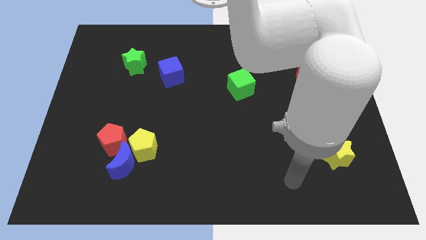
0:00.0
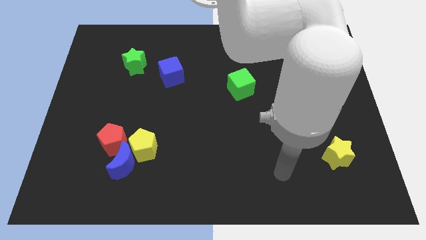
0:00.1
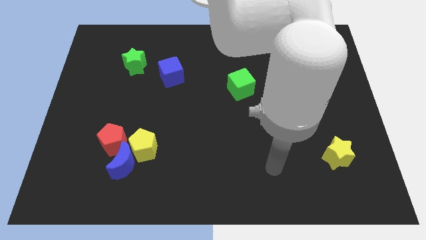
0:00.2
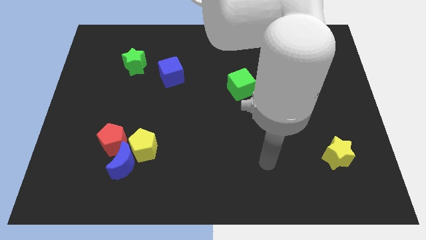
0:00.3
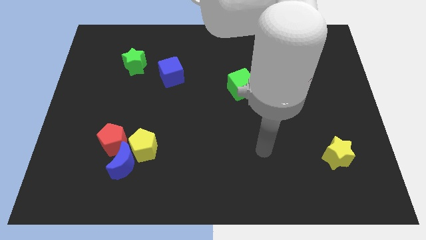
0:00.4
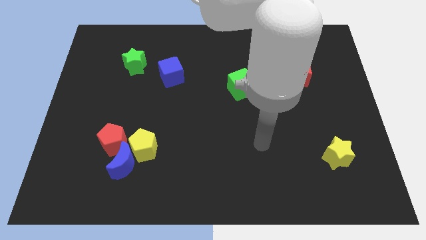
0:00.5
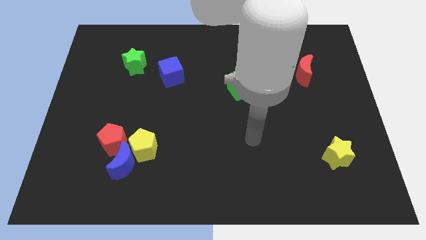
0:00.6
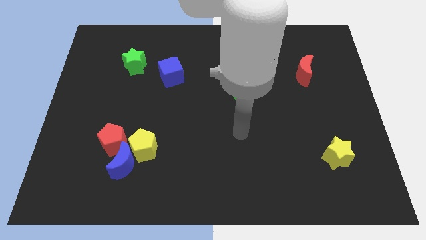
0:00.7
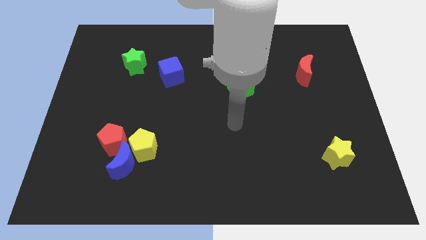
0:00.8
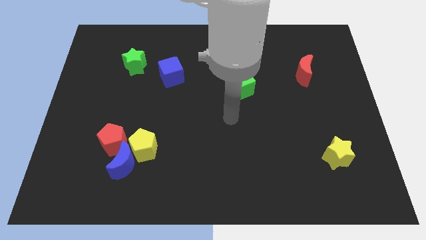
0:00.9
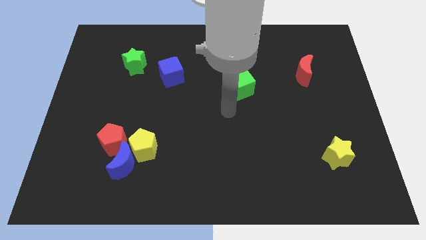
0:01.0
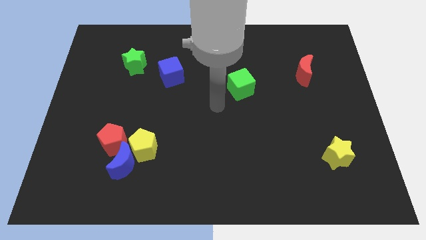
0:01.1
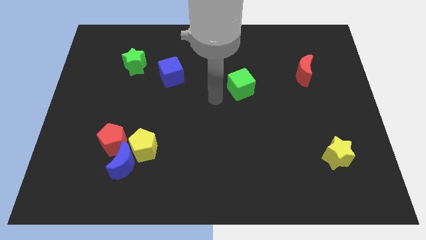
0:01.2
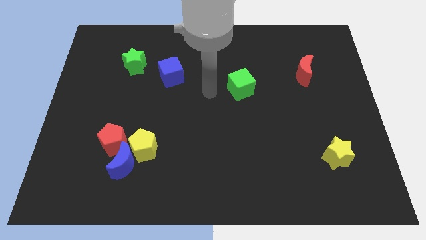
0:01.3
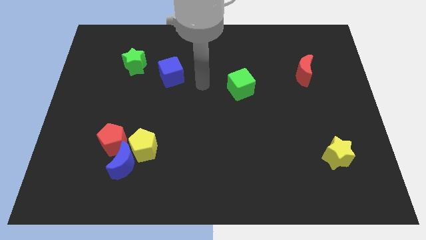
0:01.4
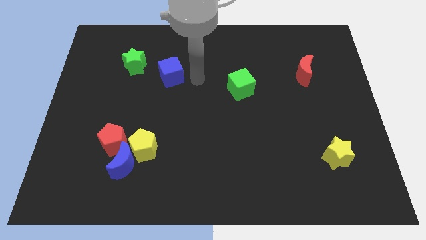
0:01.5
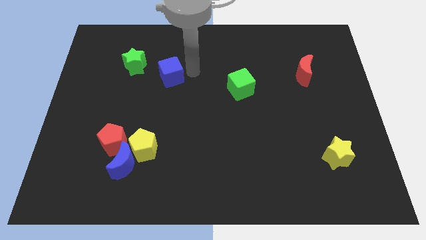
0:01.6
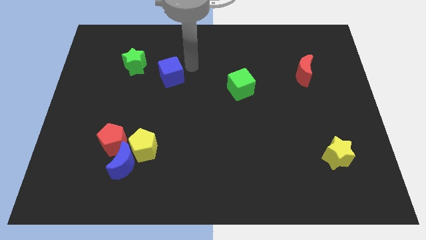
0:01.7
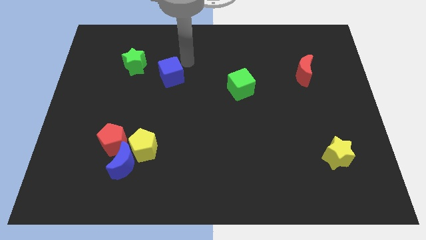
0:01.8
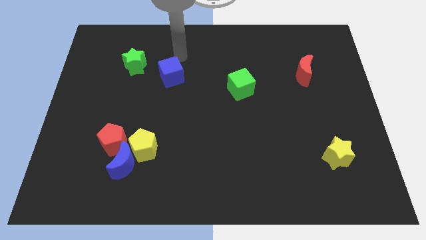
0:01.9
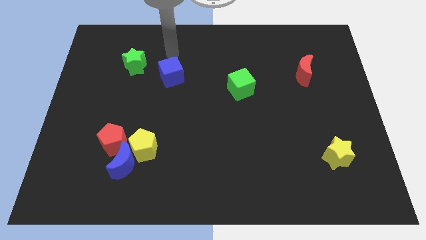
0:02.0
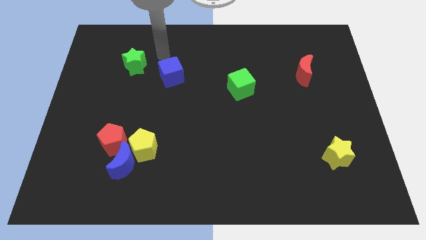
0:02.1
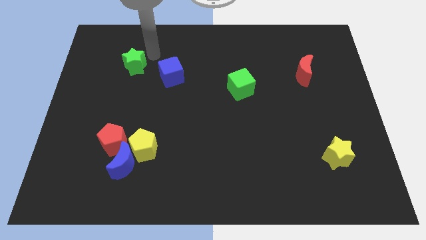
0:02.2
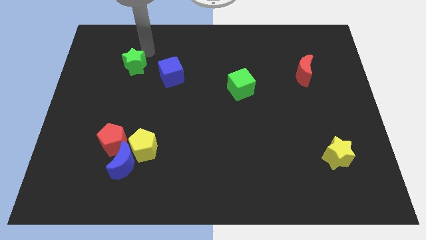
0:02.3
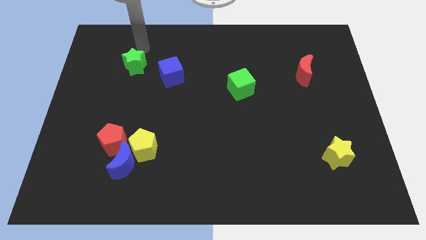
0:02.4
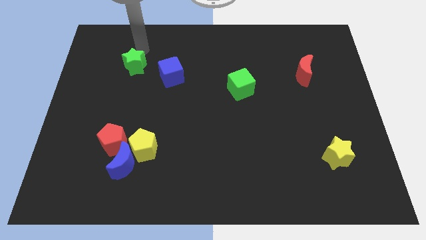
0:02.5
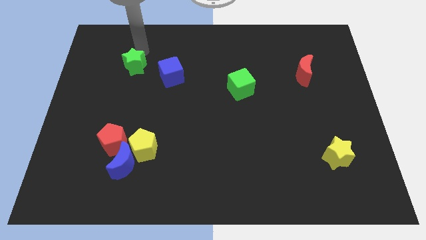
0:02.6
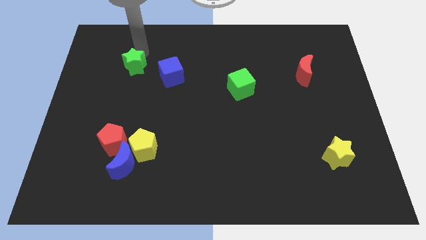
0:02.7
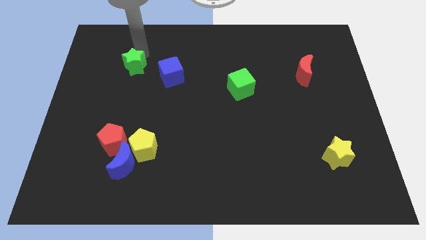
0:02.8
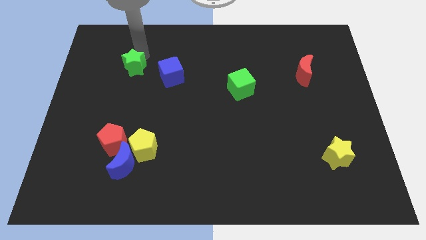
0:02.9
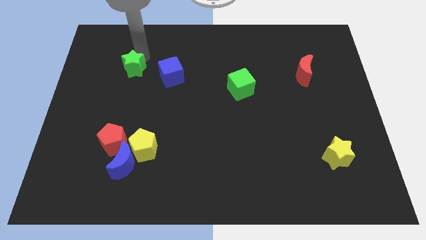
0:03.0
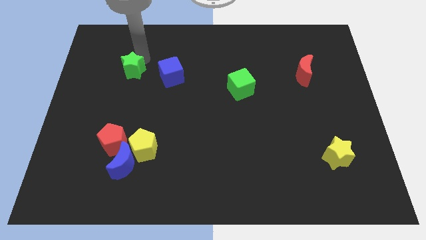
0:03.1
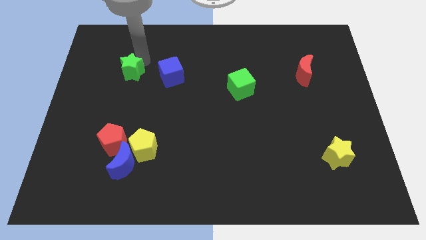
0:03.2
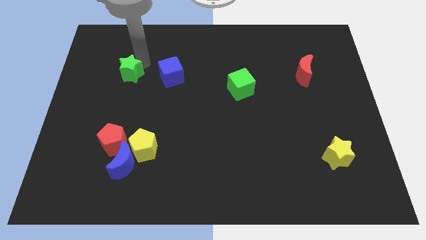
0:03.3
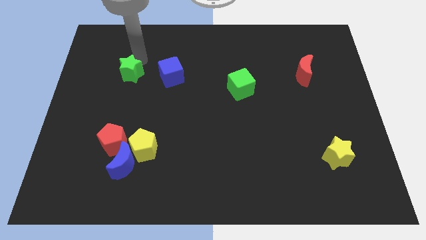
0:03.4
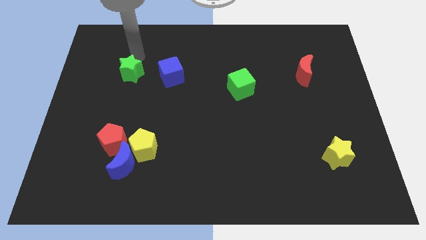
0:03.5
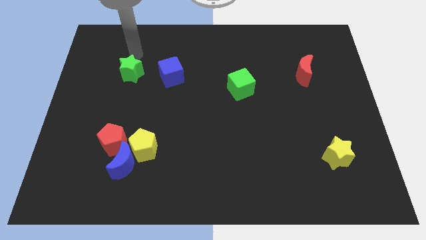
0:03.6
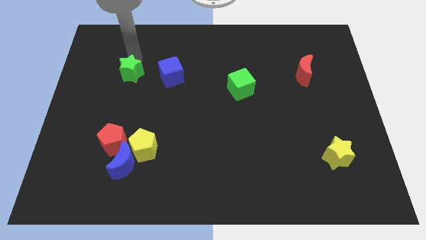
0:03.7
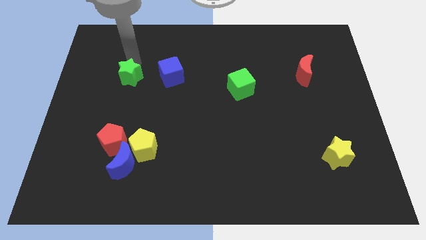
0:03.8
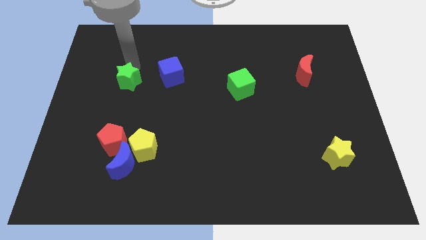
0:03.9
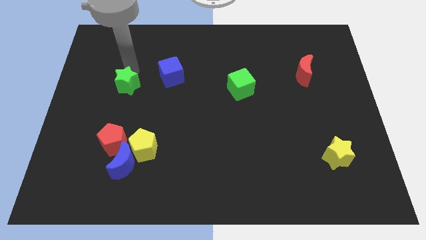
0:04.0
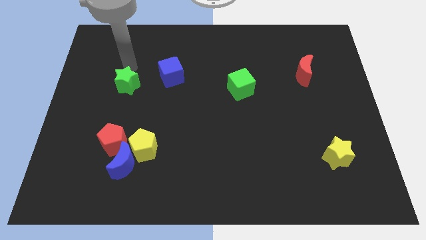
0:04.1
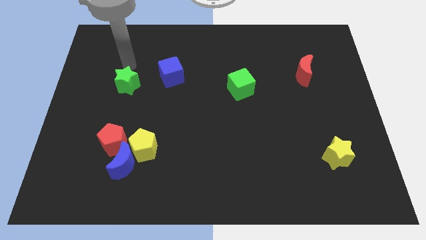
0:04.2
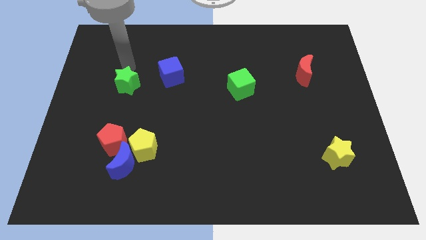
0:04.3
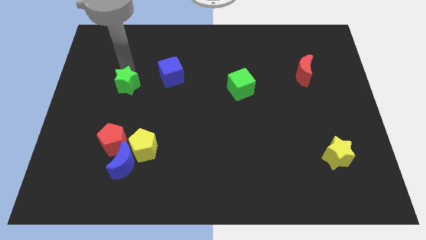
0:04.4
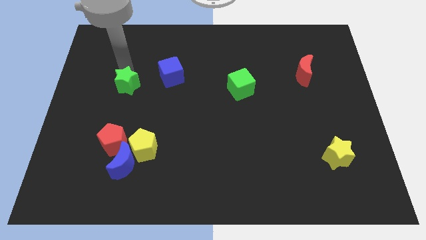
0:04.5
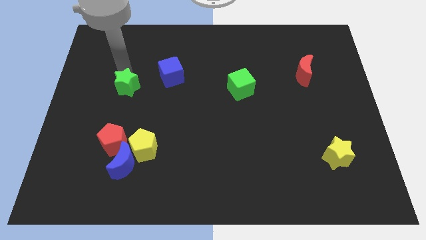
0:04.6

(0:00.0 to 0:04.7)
move the green star down a little bit

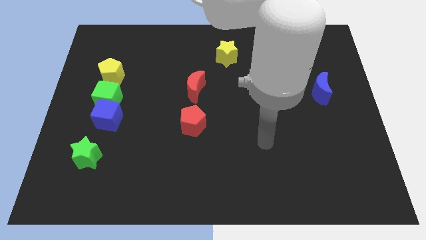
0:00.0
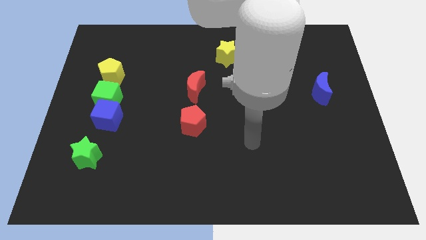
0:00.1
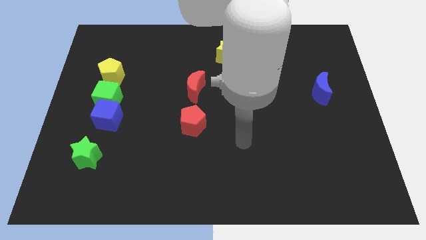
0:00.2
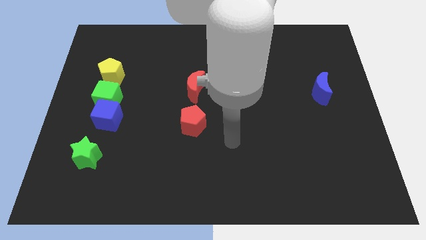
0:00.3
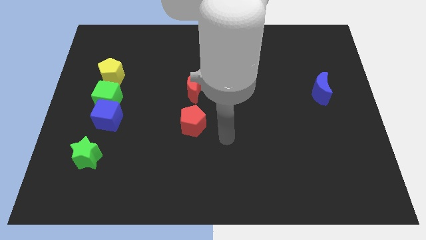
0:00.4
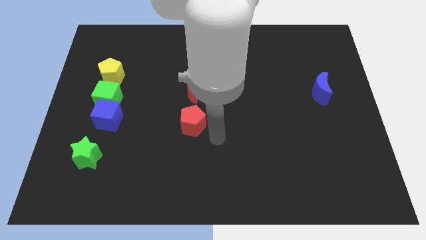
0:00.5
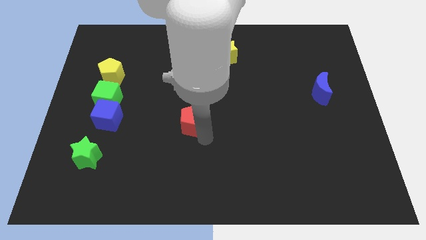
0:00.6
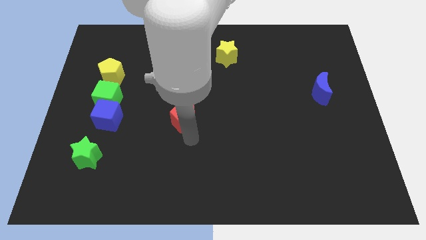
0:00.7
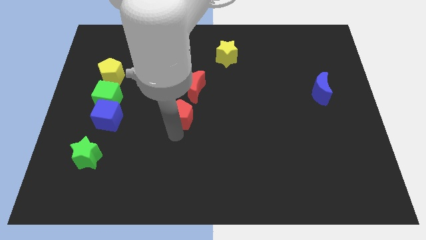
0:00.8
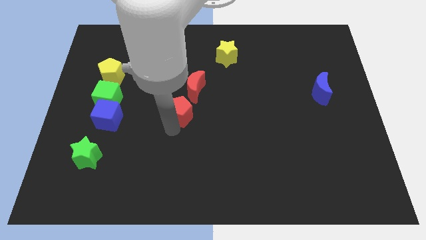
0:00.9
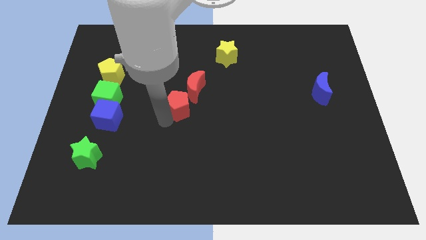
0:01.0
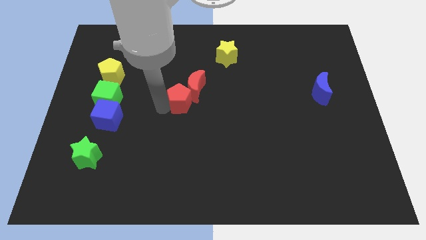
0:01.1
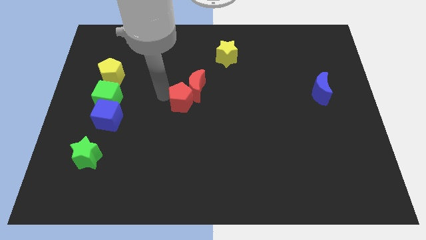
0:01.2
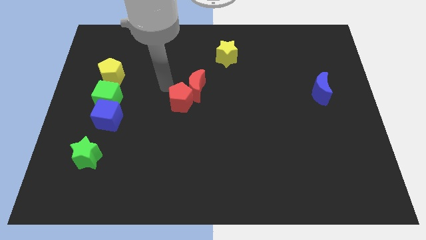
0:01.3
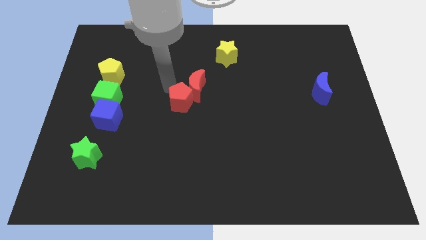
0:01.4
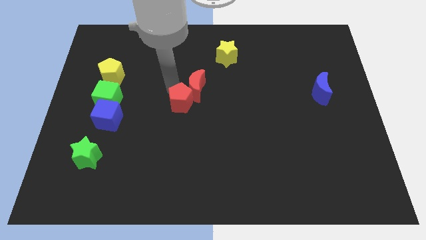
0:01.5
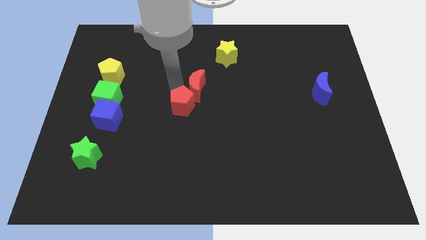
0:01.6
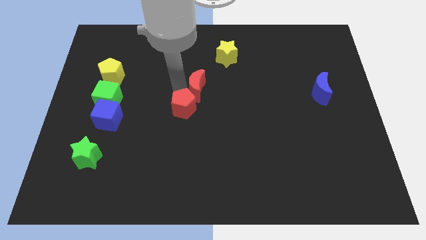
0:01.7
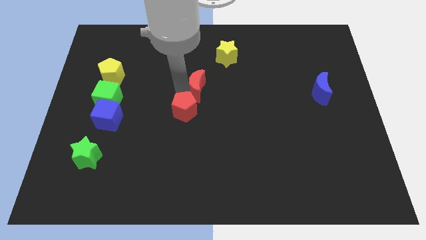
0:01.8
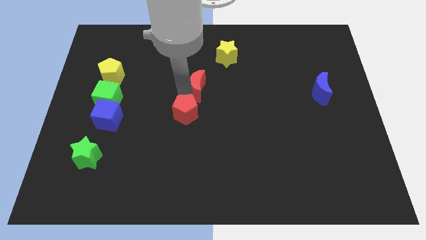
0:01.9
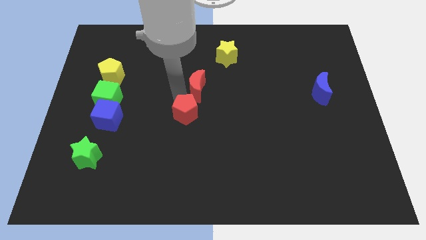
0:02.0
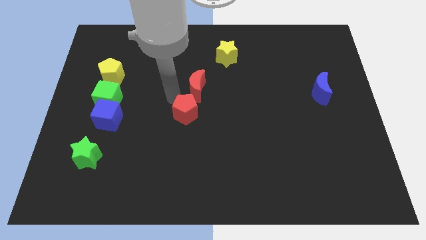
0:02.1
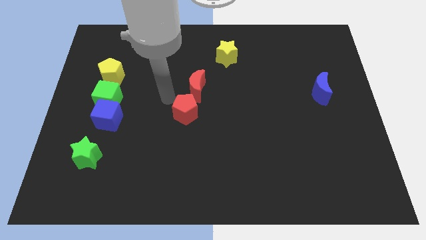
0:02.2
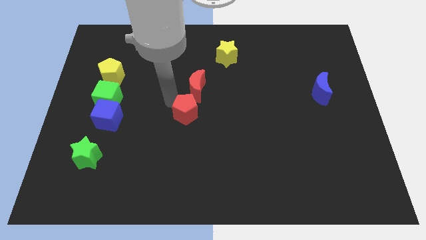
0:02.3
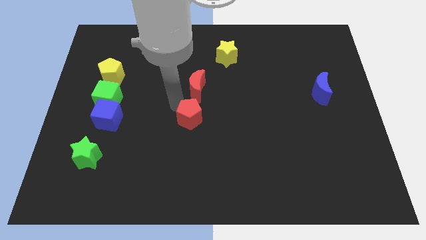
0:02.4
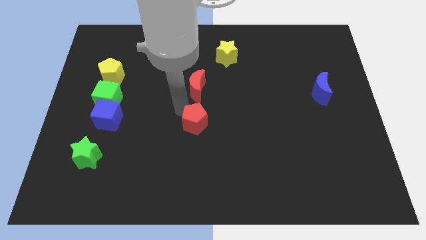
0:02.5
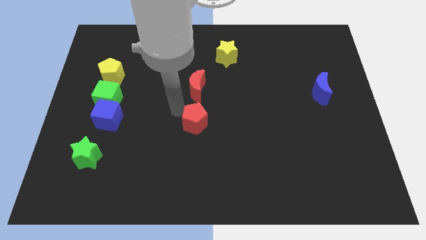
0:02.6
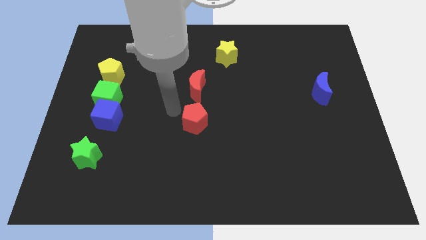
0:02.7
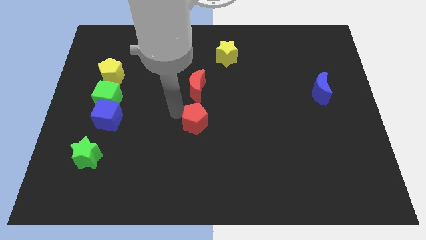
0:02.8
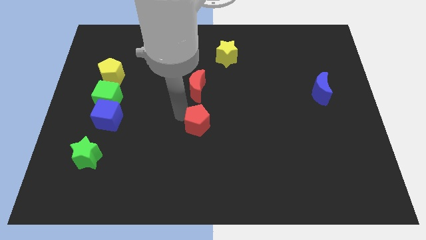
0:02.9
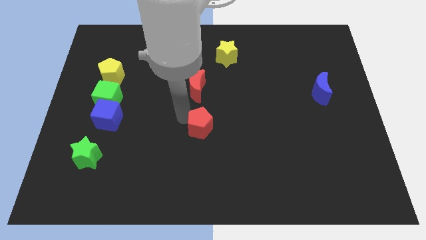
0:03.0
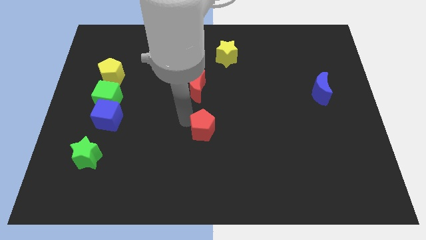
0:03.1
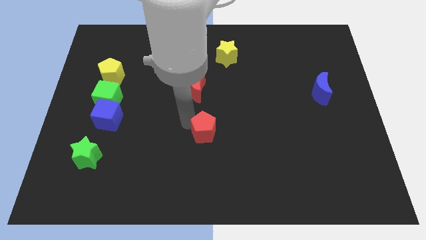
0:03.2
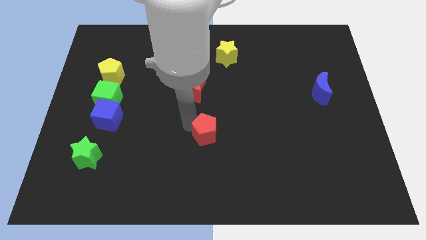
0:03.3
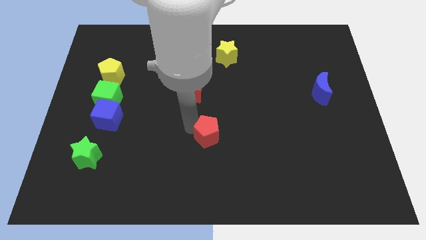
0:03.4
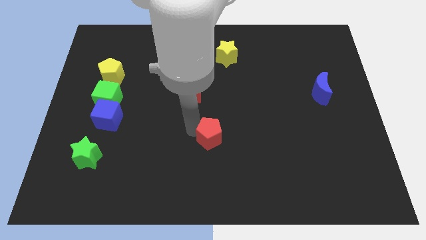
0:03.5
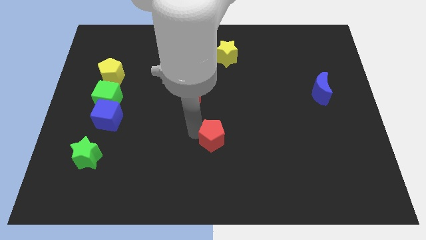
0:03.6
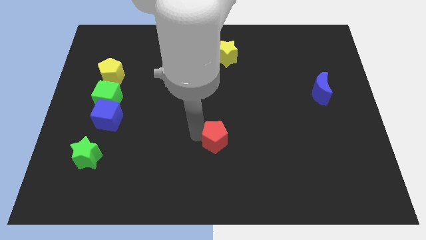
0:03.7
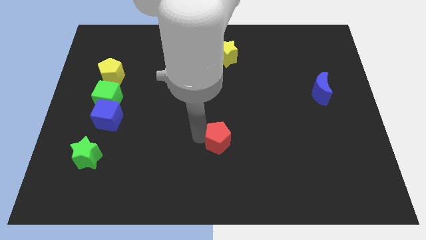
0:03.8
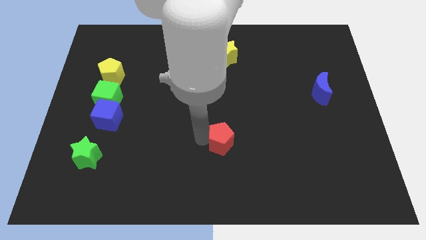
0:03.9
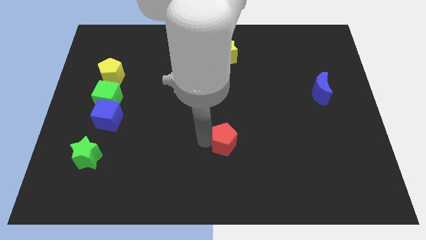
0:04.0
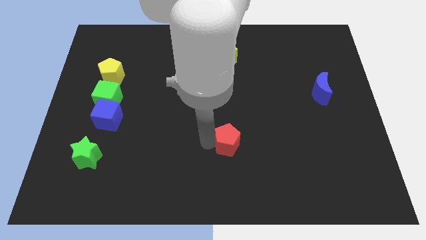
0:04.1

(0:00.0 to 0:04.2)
slide the red pentagon to the right a bit
